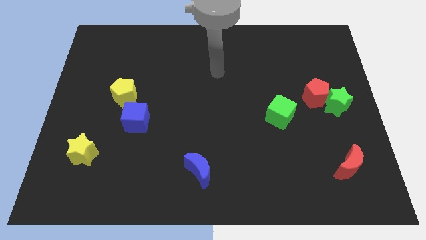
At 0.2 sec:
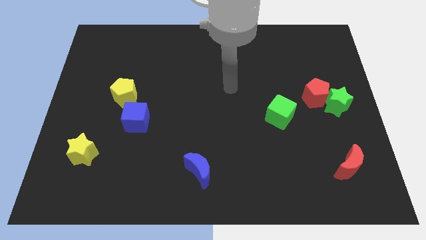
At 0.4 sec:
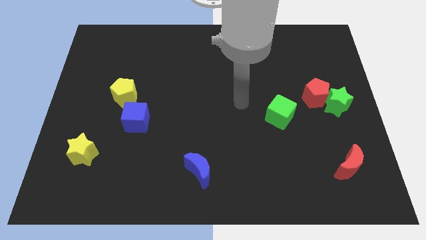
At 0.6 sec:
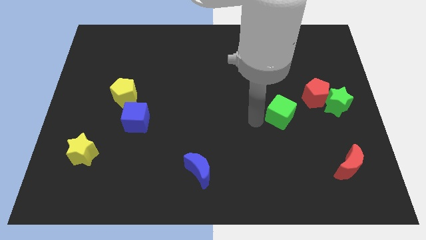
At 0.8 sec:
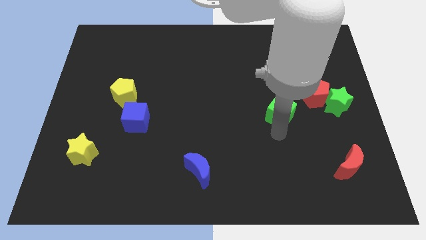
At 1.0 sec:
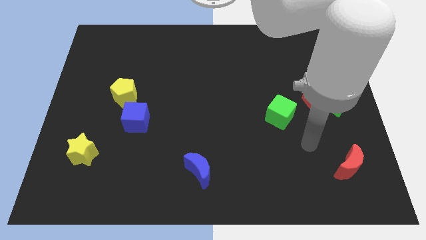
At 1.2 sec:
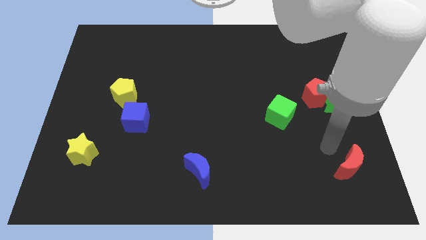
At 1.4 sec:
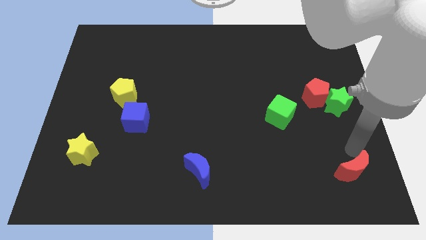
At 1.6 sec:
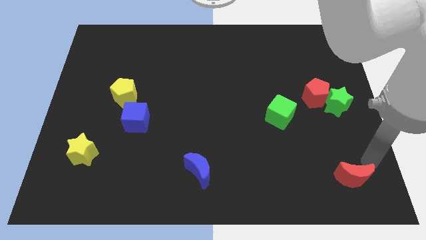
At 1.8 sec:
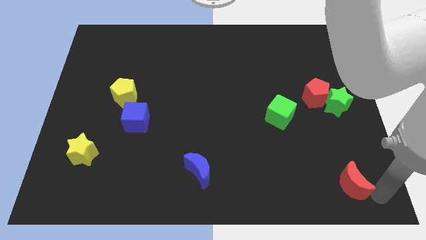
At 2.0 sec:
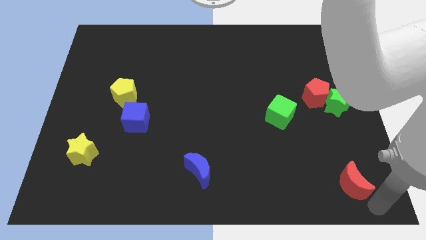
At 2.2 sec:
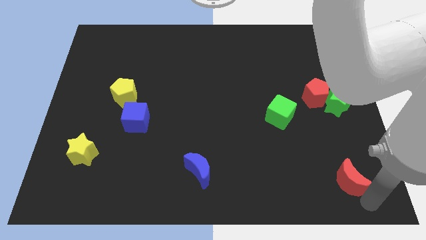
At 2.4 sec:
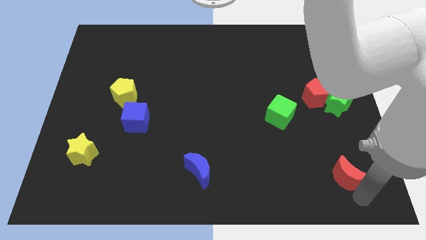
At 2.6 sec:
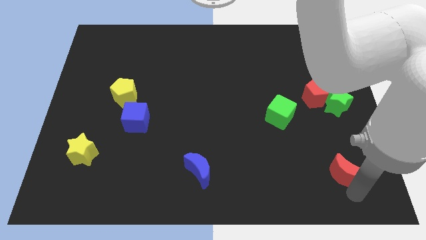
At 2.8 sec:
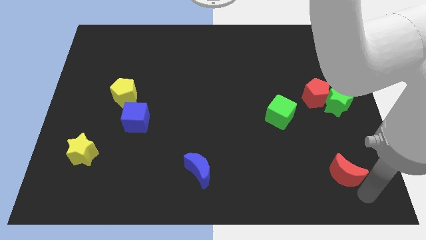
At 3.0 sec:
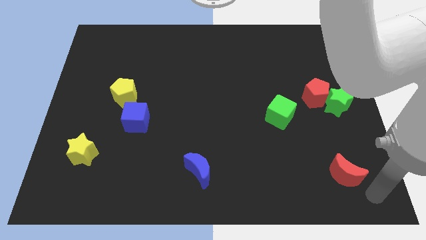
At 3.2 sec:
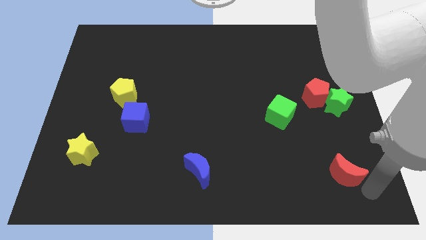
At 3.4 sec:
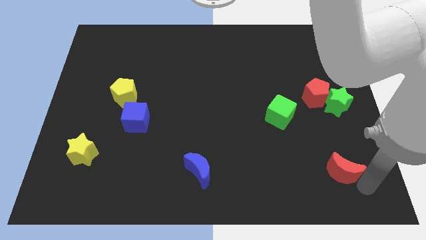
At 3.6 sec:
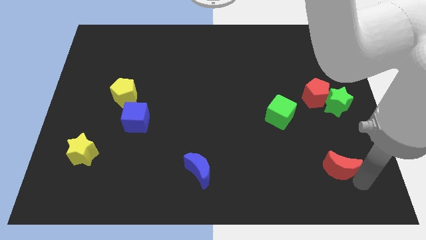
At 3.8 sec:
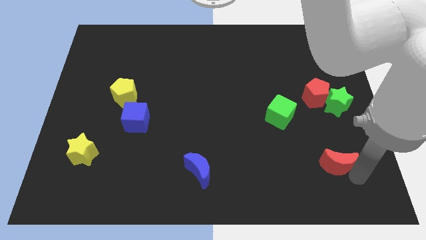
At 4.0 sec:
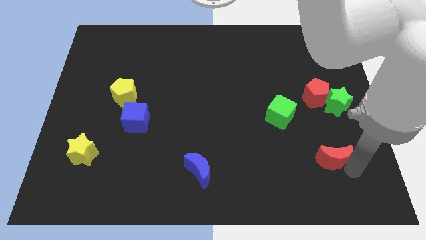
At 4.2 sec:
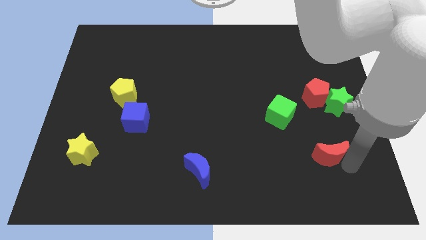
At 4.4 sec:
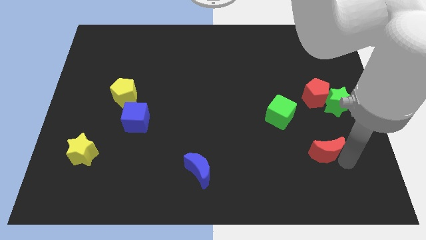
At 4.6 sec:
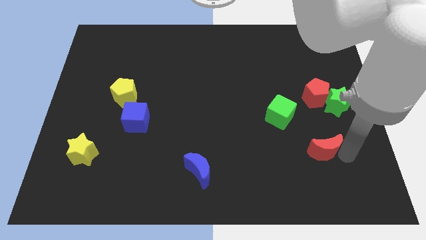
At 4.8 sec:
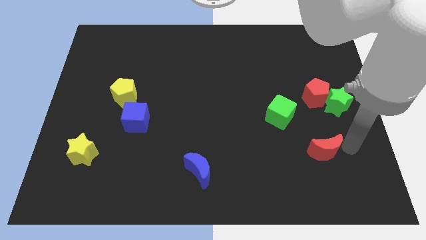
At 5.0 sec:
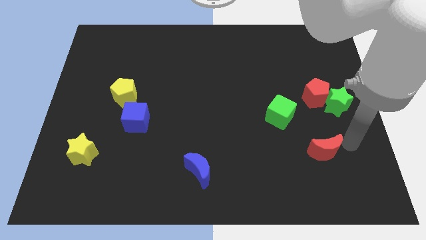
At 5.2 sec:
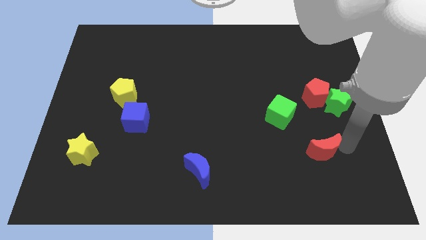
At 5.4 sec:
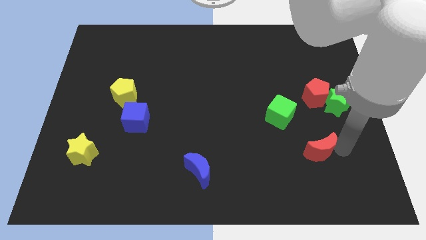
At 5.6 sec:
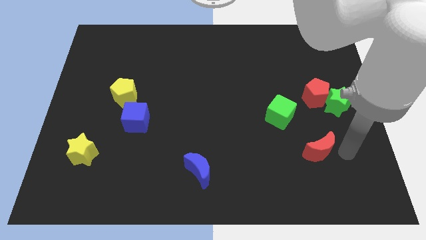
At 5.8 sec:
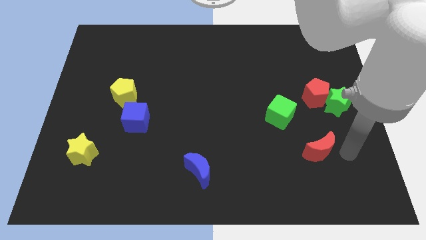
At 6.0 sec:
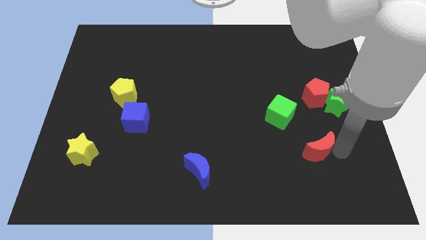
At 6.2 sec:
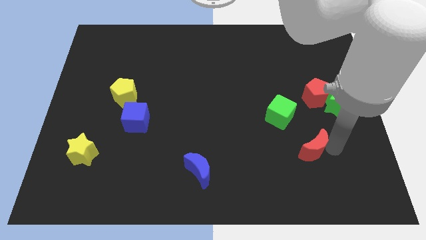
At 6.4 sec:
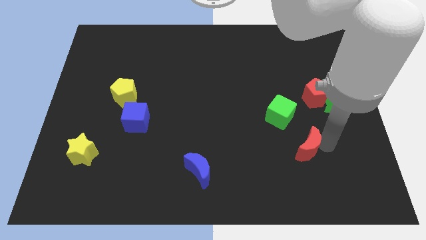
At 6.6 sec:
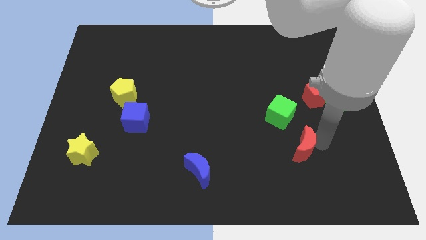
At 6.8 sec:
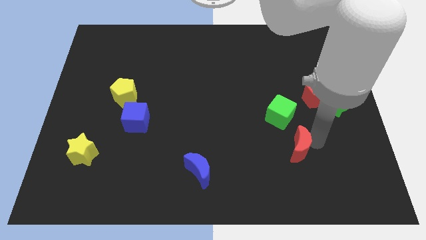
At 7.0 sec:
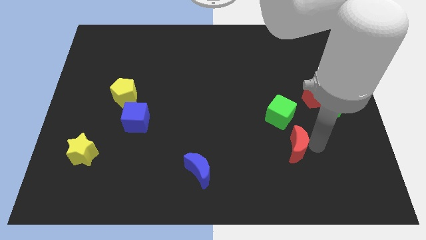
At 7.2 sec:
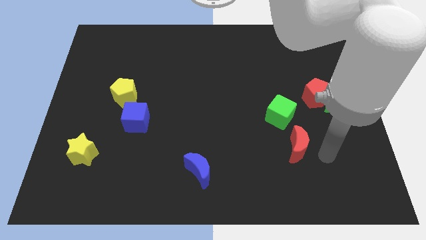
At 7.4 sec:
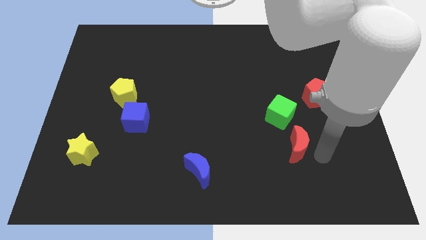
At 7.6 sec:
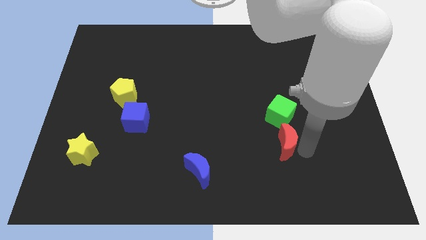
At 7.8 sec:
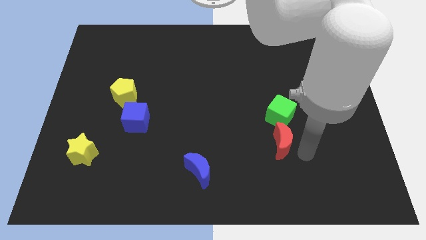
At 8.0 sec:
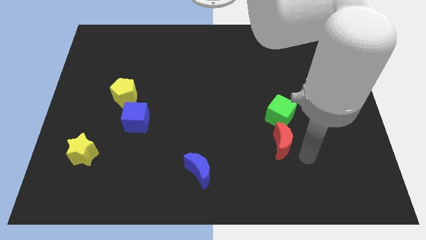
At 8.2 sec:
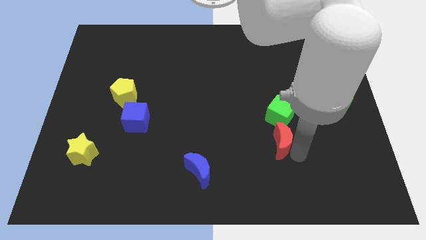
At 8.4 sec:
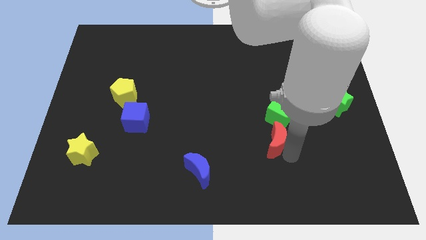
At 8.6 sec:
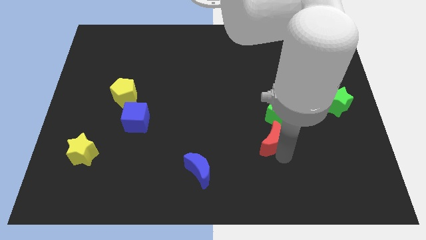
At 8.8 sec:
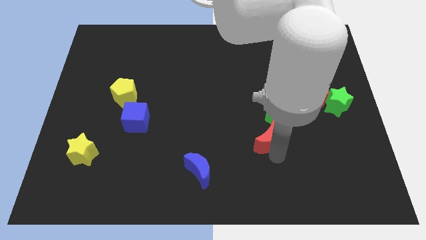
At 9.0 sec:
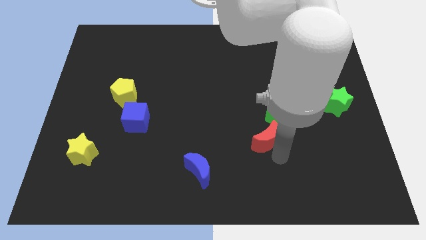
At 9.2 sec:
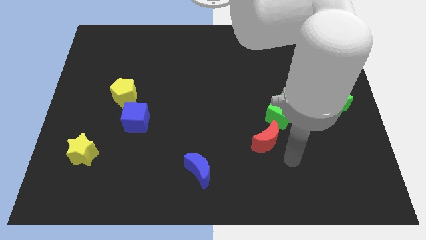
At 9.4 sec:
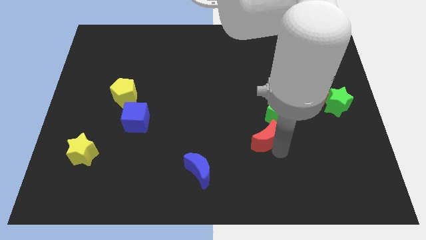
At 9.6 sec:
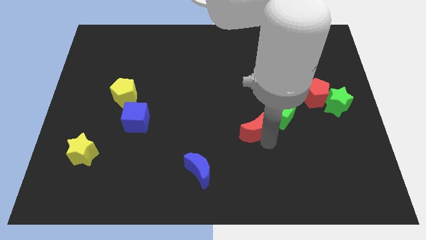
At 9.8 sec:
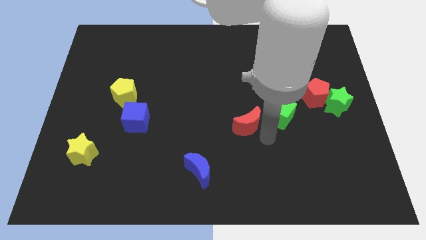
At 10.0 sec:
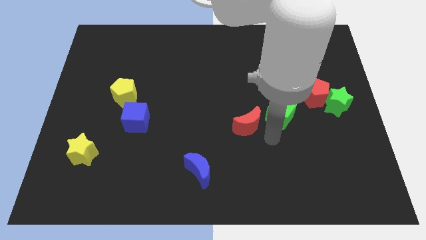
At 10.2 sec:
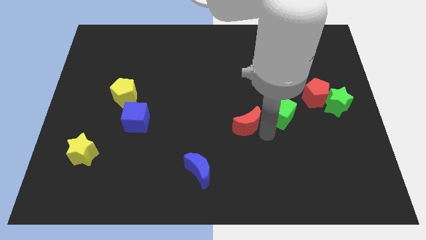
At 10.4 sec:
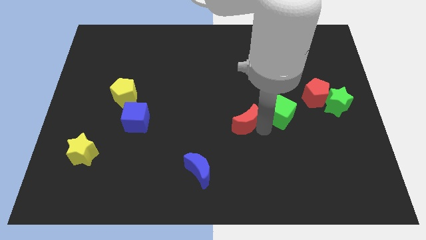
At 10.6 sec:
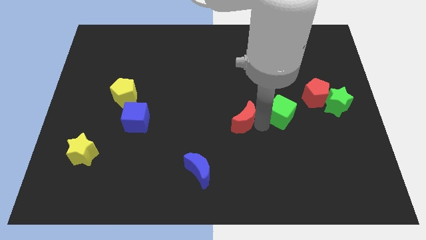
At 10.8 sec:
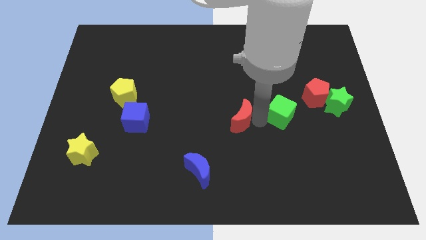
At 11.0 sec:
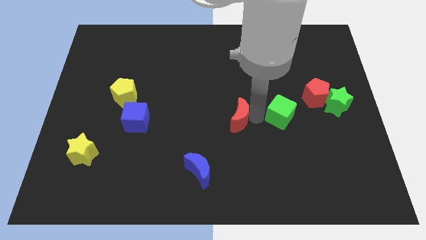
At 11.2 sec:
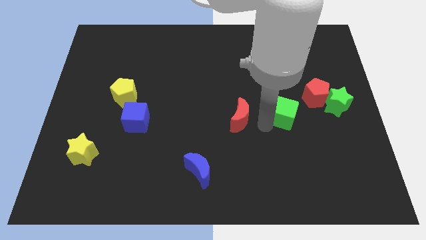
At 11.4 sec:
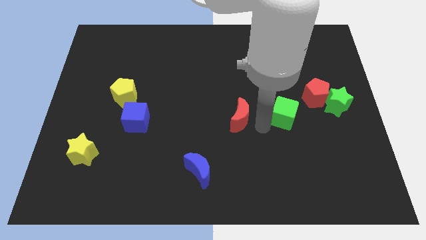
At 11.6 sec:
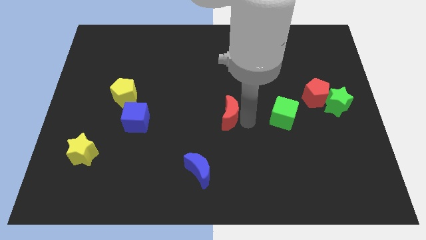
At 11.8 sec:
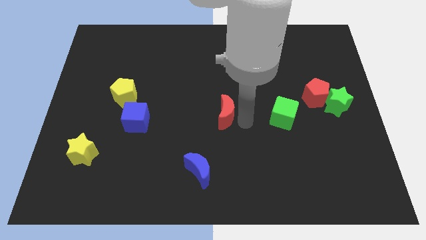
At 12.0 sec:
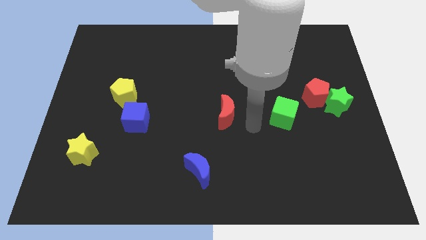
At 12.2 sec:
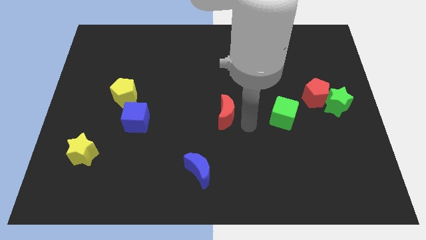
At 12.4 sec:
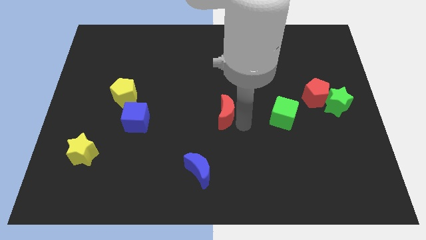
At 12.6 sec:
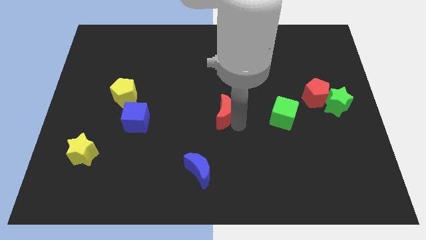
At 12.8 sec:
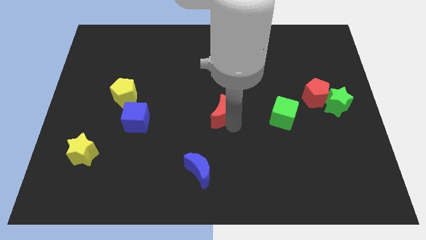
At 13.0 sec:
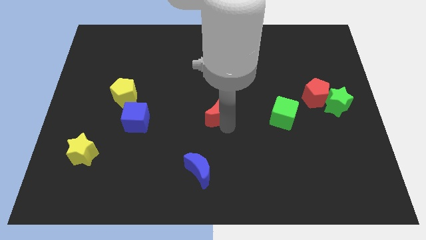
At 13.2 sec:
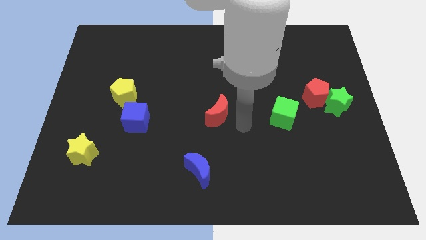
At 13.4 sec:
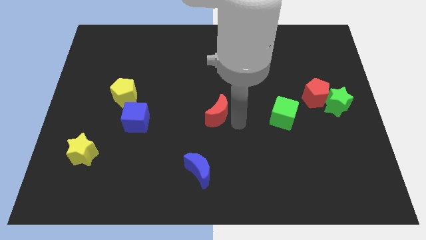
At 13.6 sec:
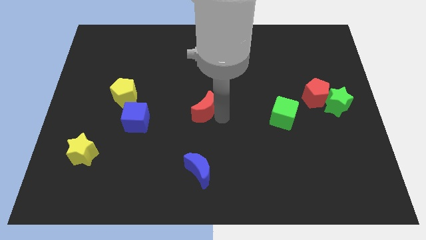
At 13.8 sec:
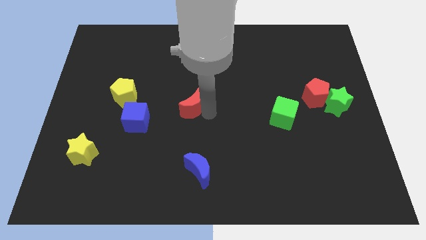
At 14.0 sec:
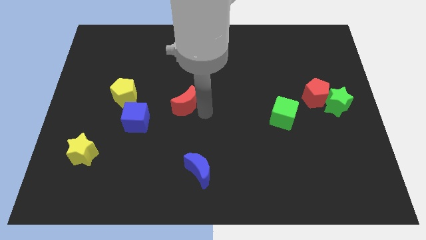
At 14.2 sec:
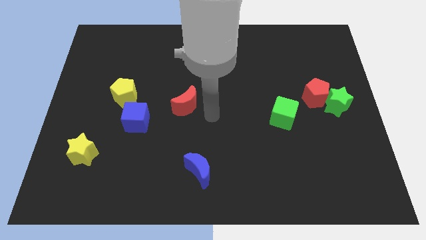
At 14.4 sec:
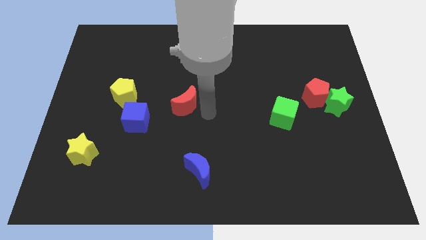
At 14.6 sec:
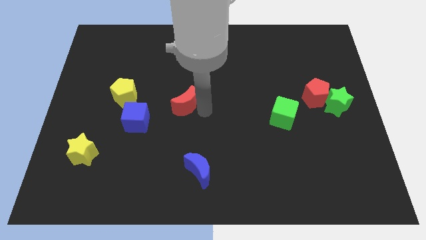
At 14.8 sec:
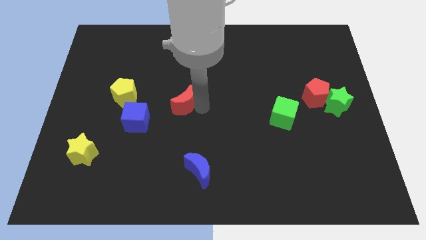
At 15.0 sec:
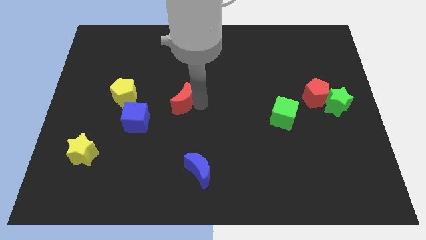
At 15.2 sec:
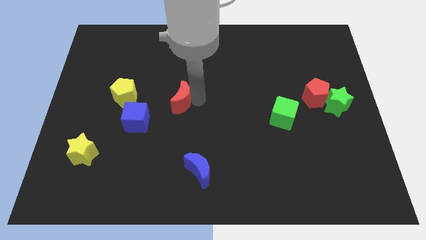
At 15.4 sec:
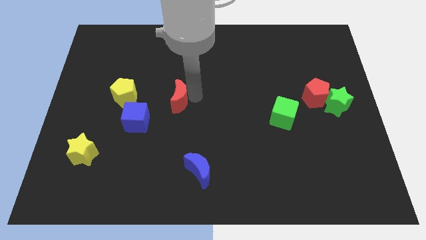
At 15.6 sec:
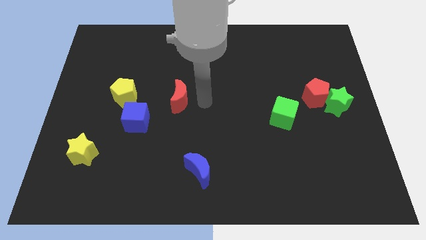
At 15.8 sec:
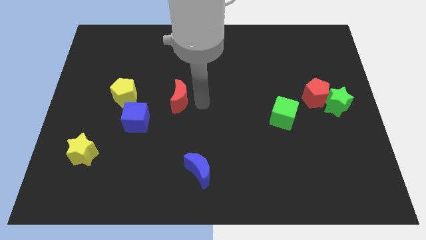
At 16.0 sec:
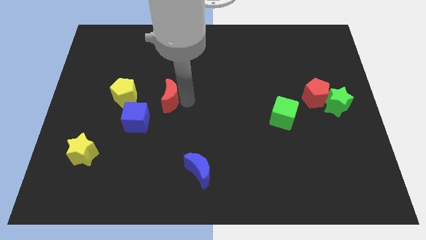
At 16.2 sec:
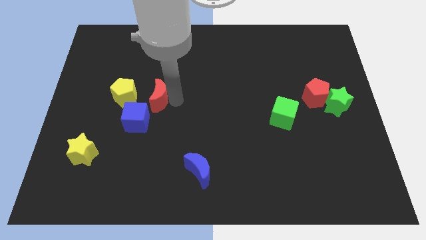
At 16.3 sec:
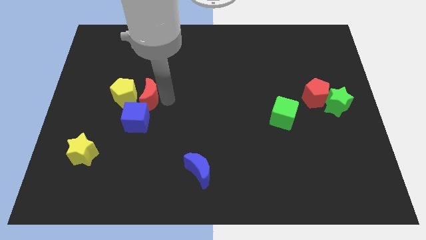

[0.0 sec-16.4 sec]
move the red moon towards the yellow pentagon
